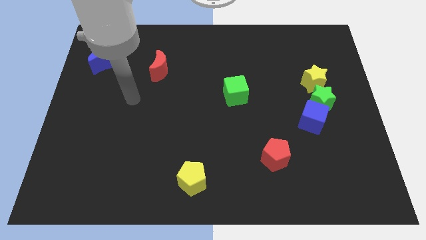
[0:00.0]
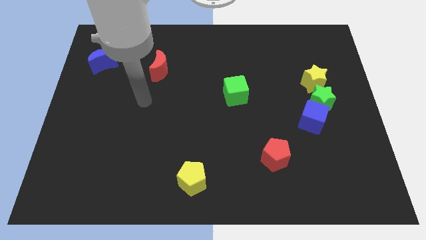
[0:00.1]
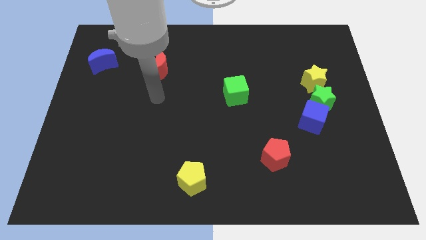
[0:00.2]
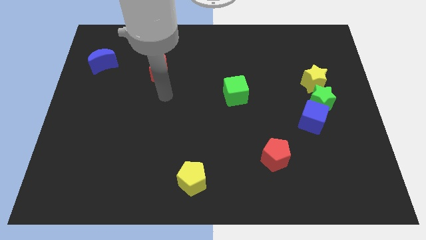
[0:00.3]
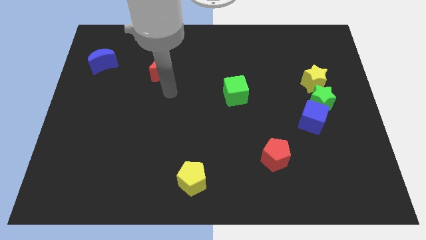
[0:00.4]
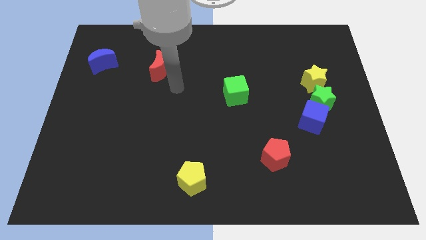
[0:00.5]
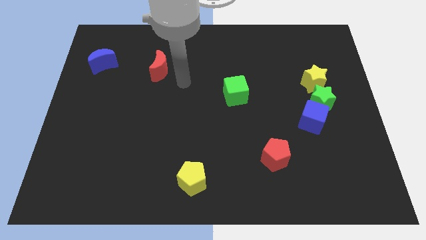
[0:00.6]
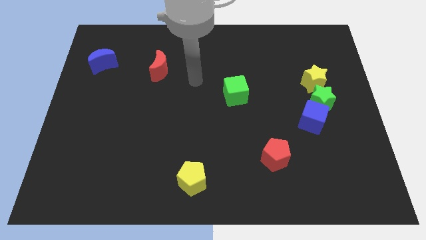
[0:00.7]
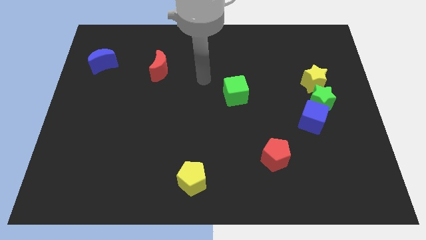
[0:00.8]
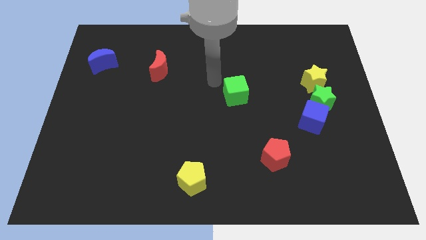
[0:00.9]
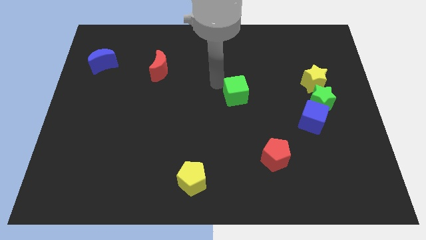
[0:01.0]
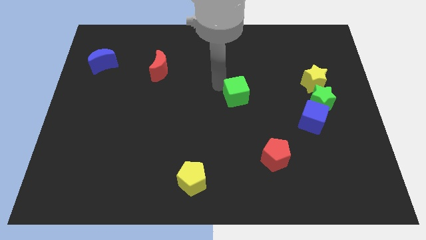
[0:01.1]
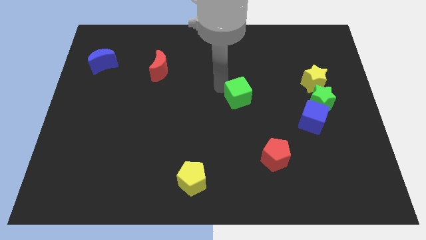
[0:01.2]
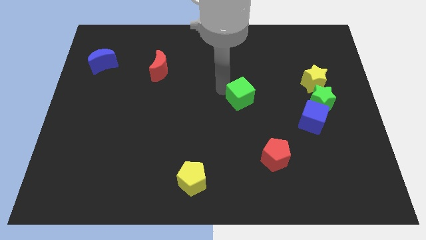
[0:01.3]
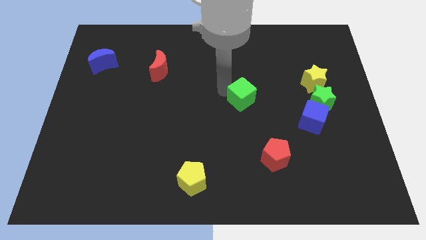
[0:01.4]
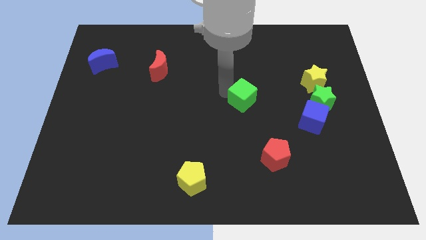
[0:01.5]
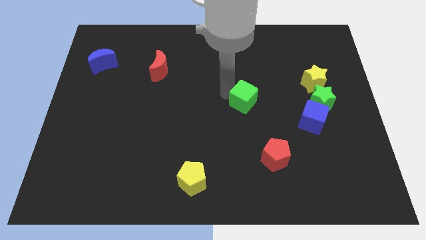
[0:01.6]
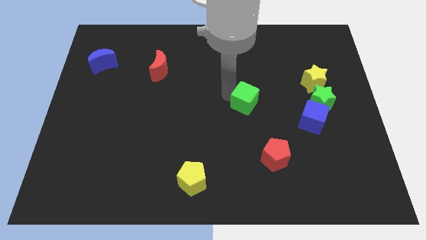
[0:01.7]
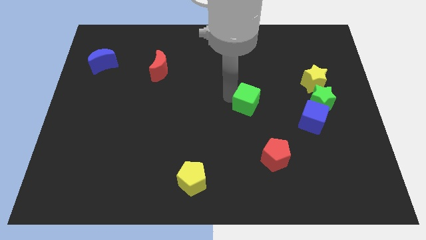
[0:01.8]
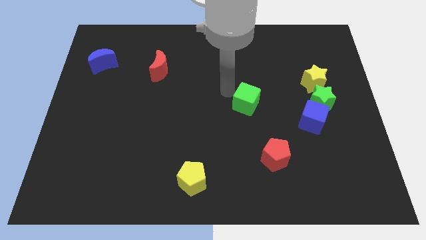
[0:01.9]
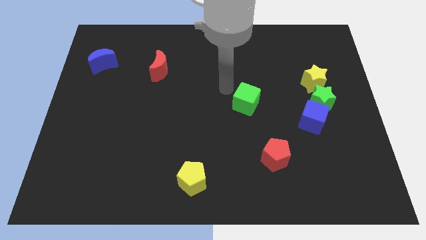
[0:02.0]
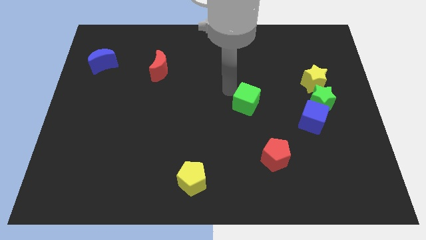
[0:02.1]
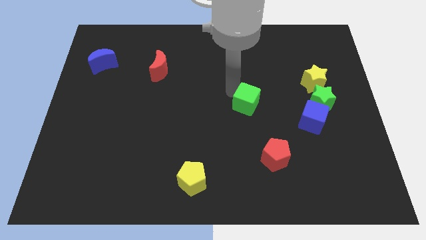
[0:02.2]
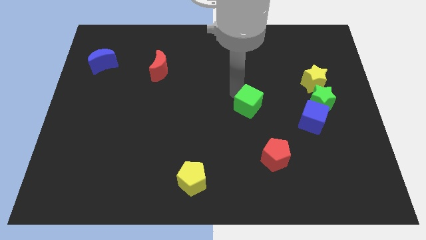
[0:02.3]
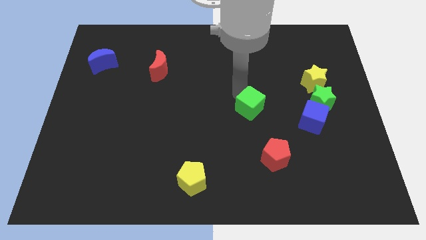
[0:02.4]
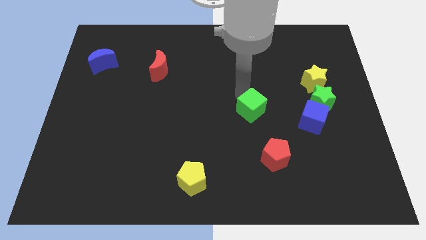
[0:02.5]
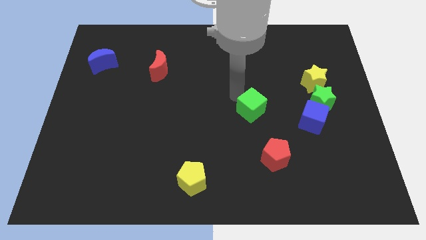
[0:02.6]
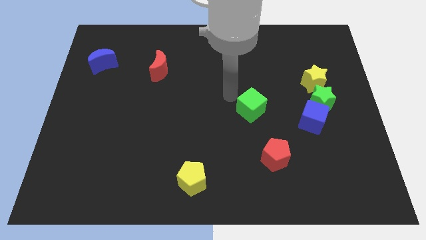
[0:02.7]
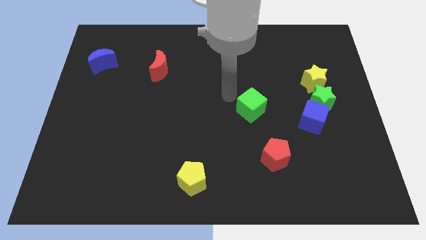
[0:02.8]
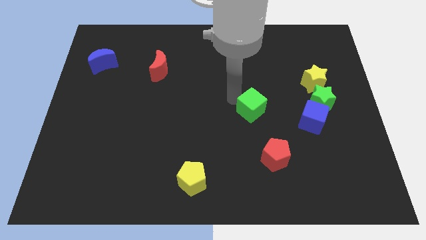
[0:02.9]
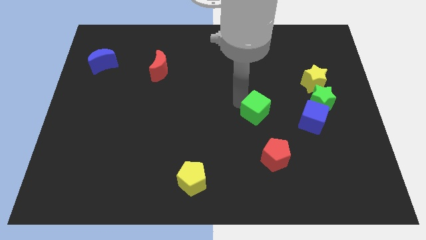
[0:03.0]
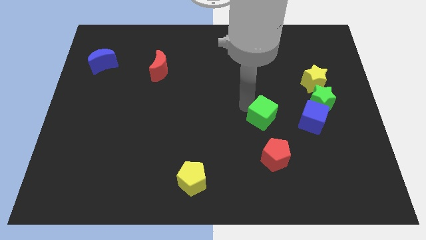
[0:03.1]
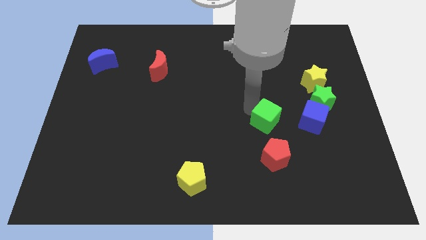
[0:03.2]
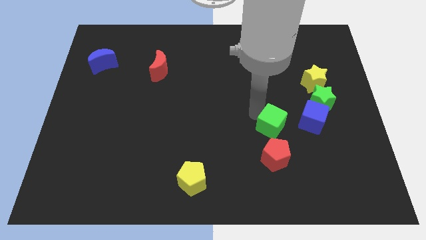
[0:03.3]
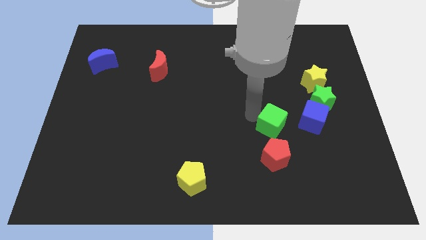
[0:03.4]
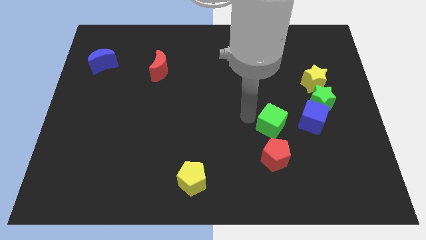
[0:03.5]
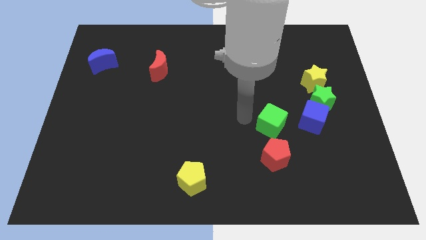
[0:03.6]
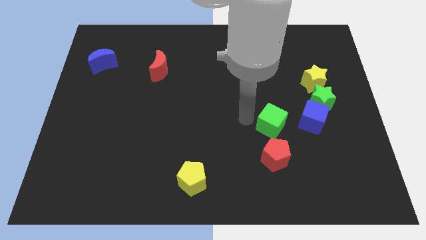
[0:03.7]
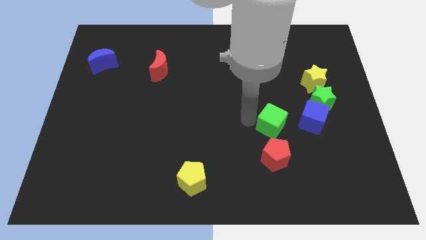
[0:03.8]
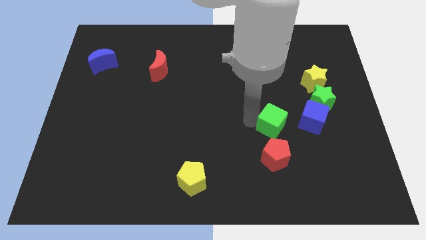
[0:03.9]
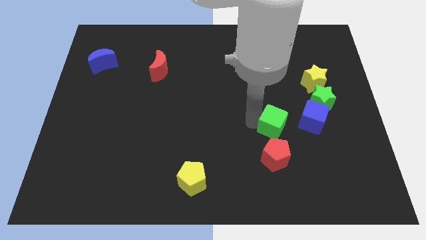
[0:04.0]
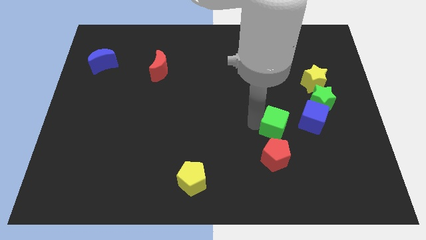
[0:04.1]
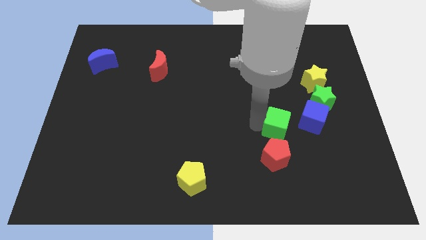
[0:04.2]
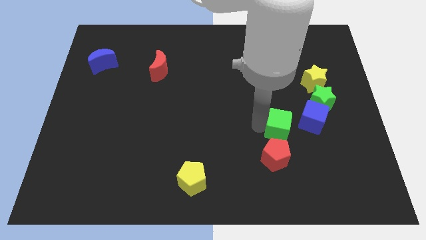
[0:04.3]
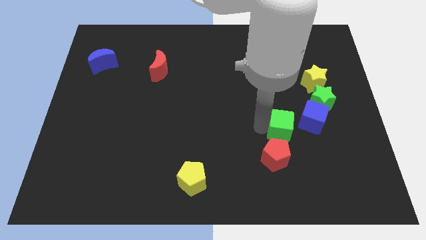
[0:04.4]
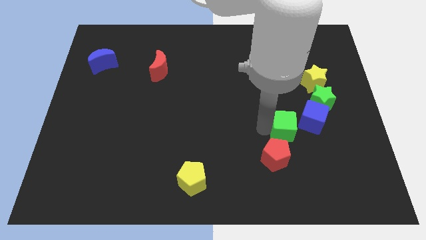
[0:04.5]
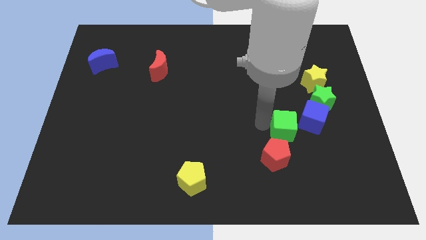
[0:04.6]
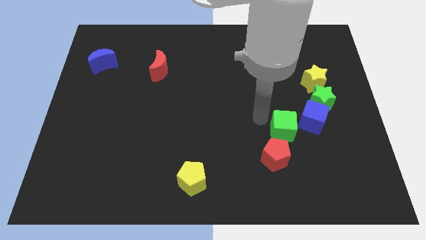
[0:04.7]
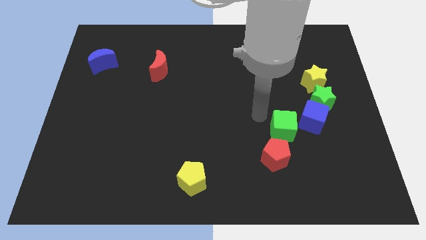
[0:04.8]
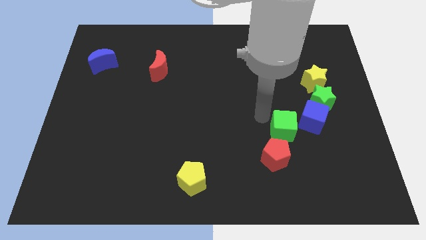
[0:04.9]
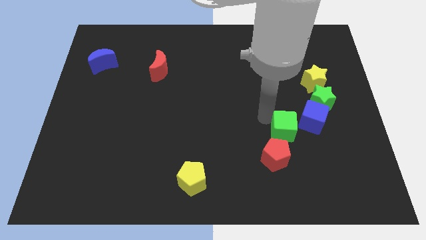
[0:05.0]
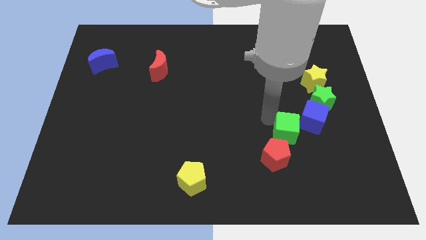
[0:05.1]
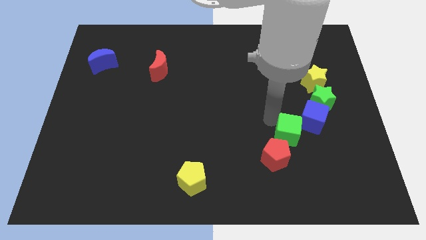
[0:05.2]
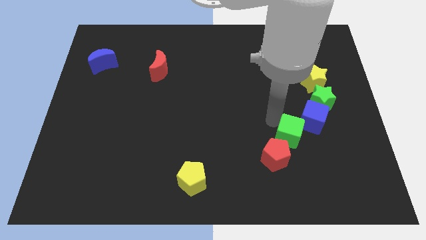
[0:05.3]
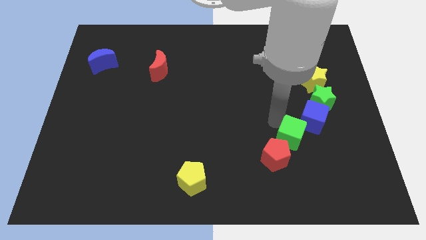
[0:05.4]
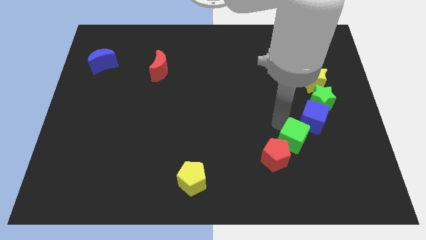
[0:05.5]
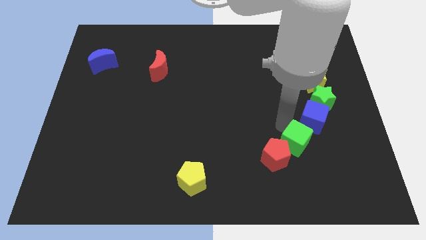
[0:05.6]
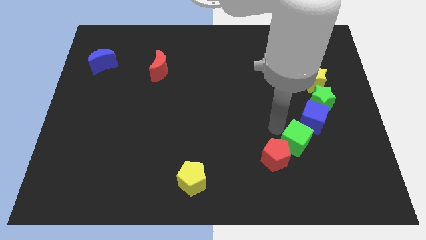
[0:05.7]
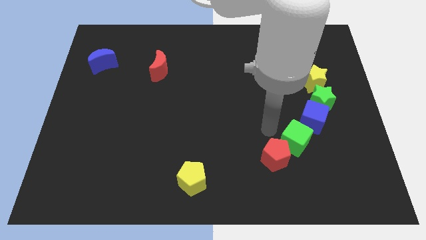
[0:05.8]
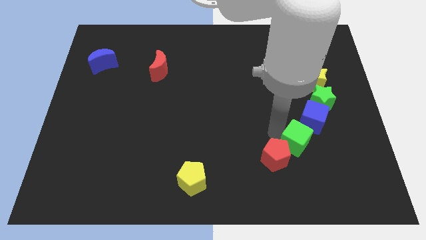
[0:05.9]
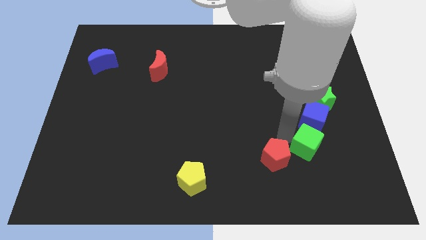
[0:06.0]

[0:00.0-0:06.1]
push the green cube downwards and to the right diagonally

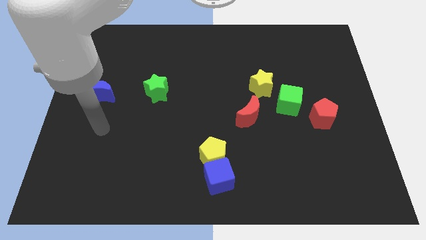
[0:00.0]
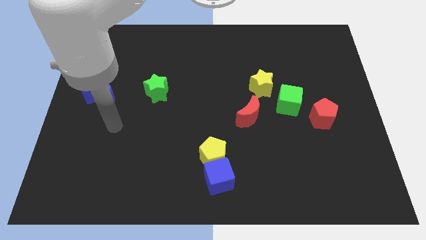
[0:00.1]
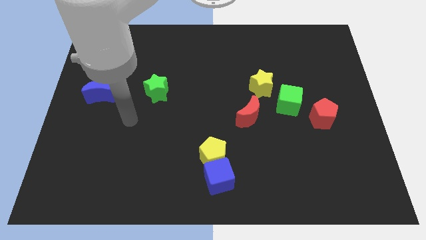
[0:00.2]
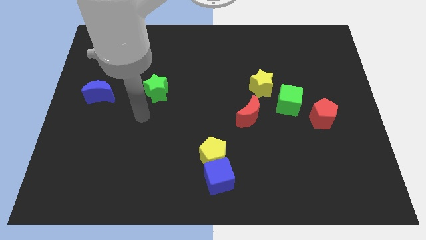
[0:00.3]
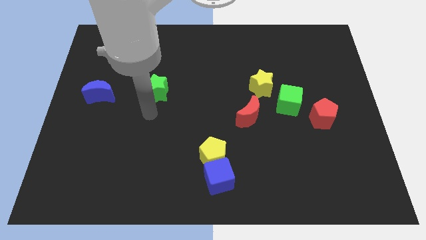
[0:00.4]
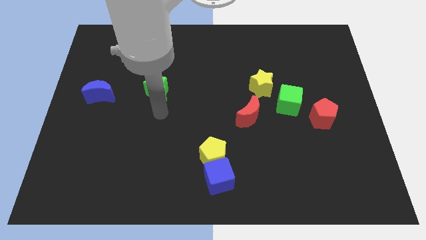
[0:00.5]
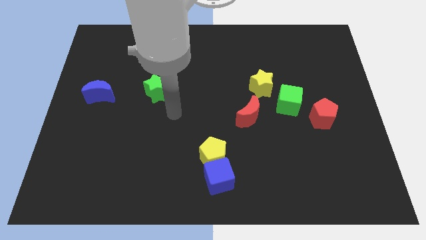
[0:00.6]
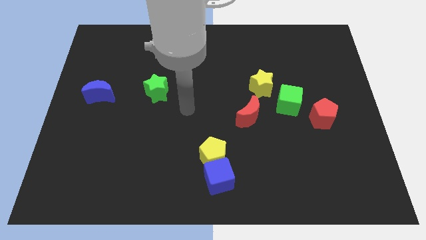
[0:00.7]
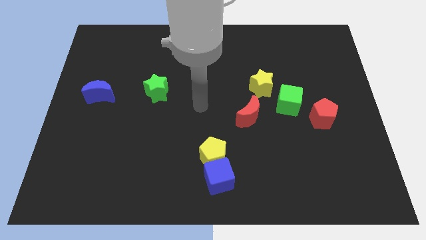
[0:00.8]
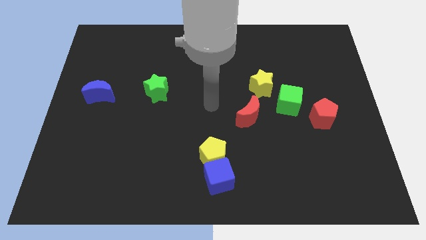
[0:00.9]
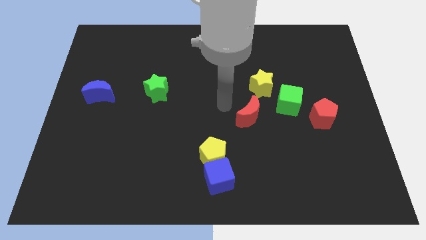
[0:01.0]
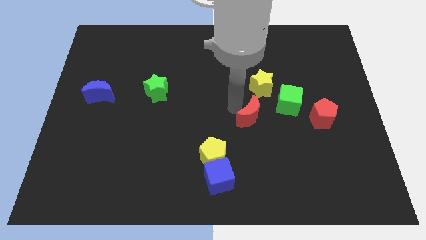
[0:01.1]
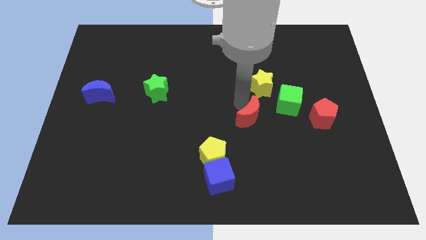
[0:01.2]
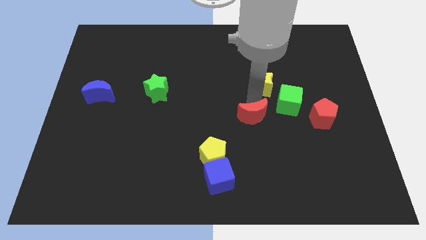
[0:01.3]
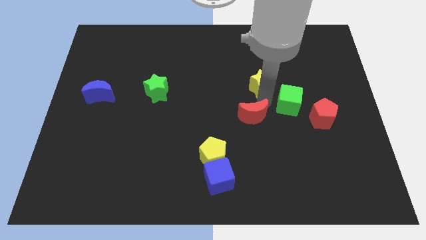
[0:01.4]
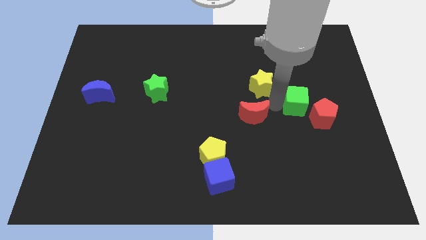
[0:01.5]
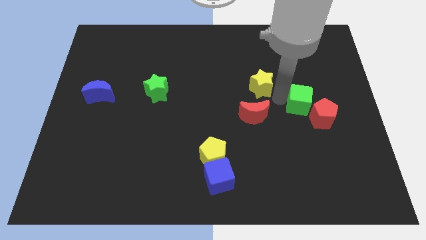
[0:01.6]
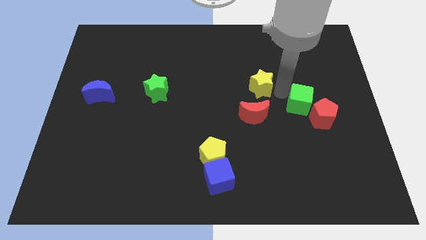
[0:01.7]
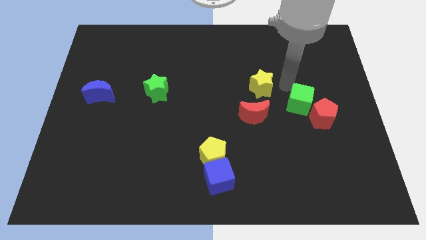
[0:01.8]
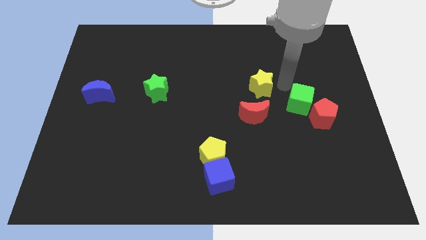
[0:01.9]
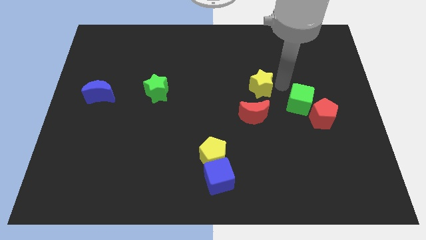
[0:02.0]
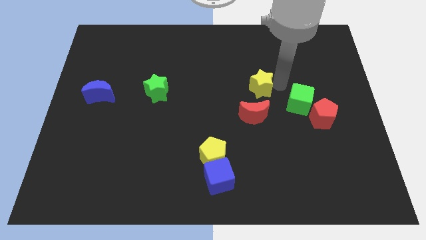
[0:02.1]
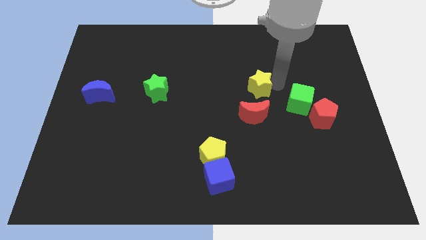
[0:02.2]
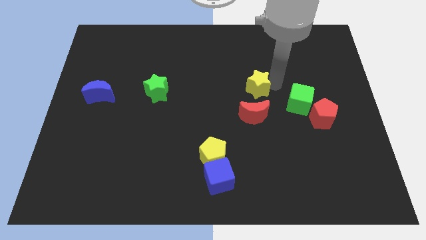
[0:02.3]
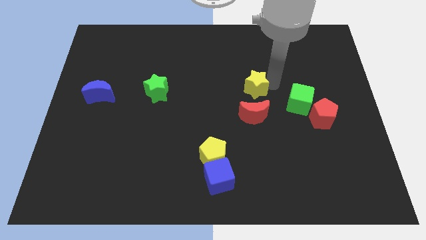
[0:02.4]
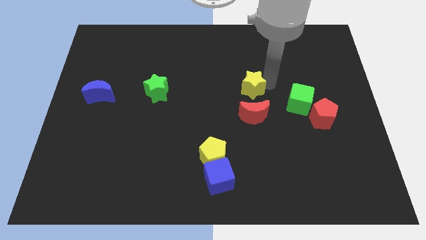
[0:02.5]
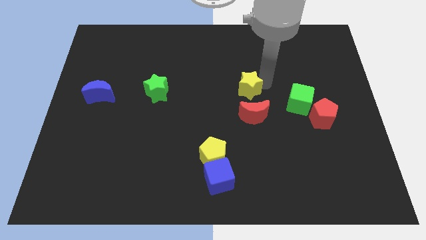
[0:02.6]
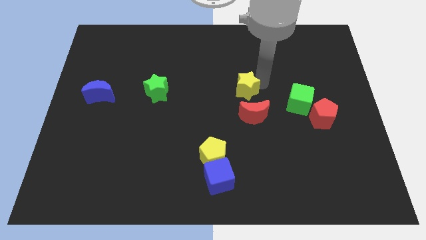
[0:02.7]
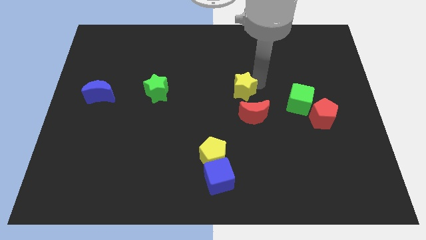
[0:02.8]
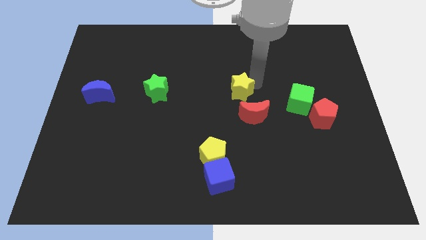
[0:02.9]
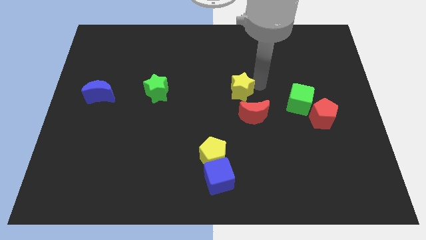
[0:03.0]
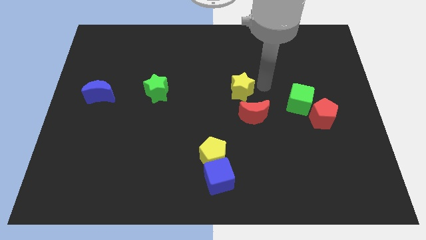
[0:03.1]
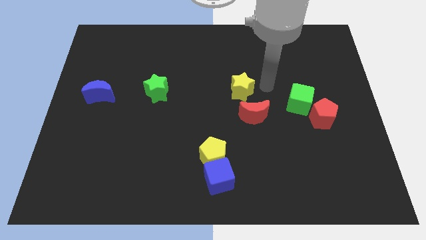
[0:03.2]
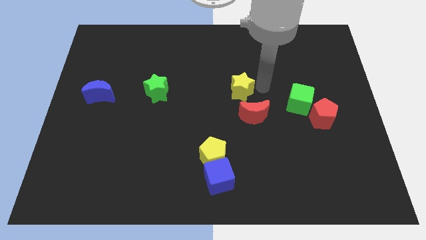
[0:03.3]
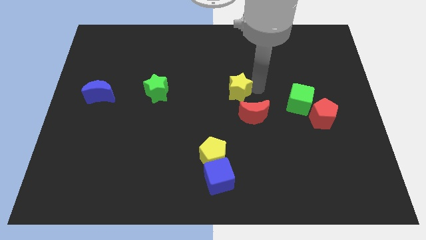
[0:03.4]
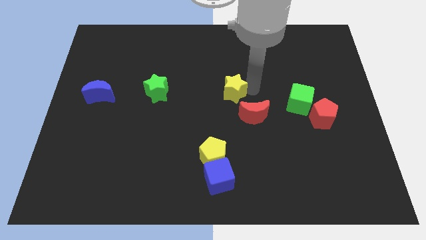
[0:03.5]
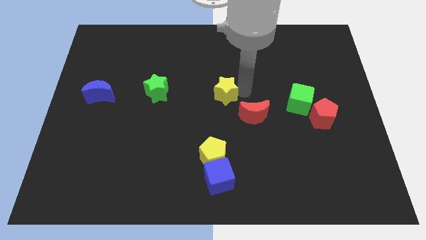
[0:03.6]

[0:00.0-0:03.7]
slide the yellow star a little left
